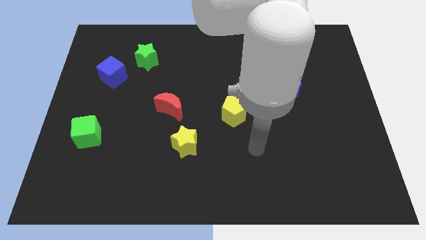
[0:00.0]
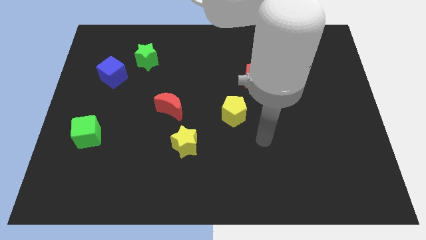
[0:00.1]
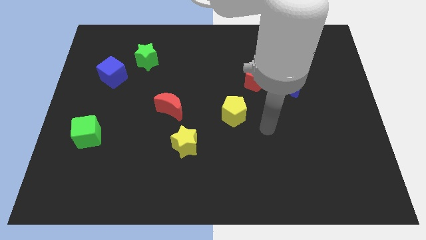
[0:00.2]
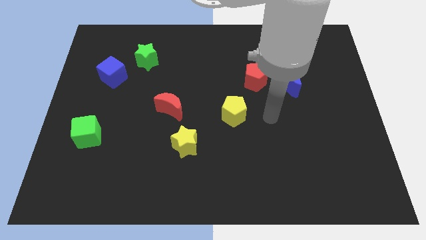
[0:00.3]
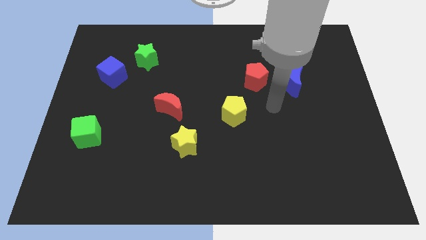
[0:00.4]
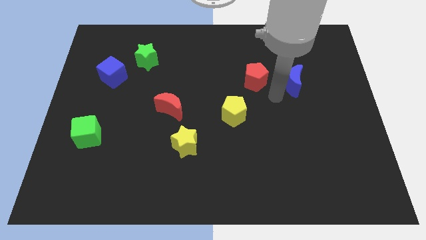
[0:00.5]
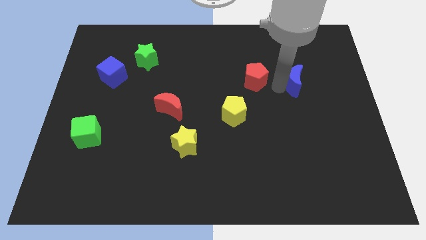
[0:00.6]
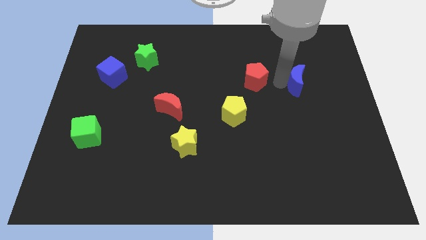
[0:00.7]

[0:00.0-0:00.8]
pull the red pentagon apart from the blue moon

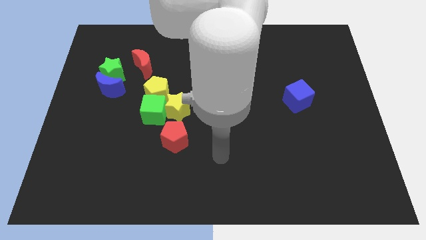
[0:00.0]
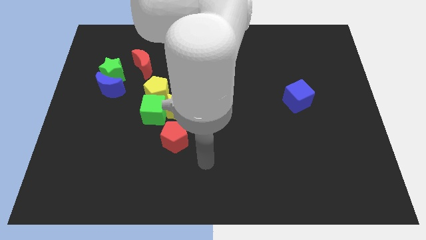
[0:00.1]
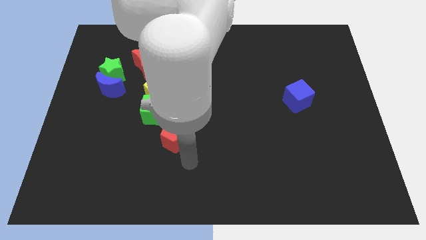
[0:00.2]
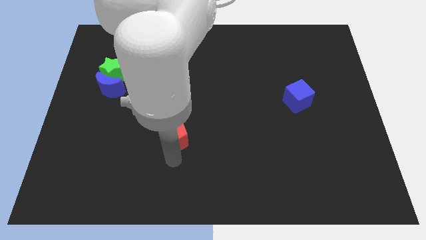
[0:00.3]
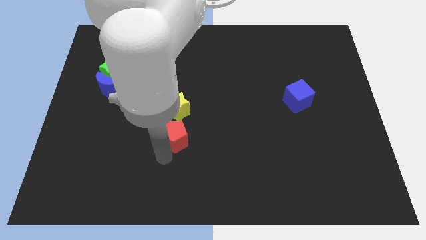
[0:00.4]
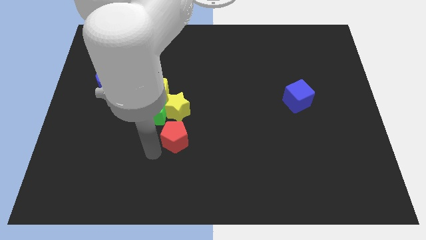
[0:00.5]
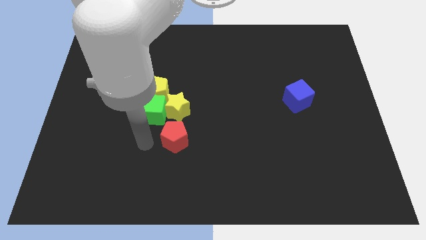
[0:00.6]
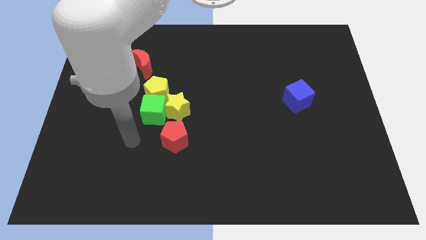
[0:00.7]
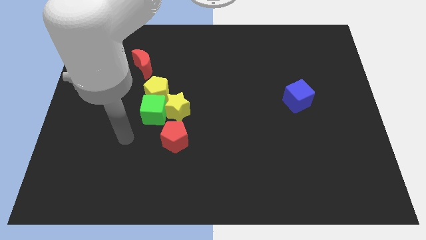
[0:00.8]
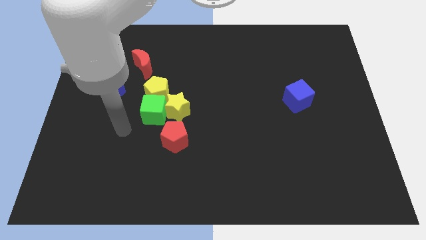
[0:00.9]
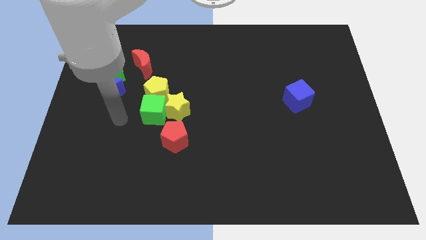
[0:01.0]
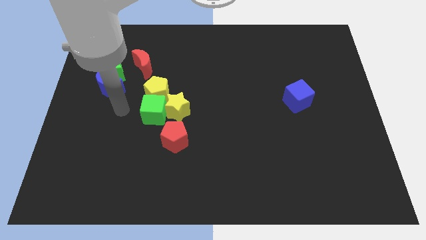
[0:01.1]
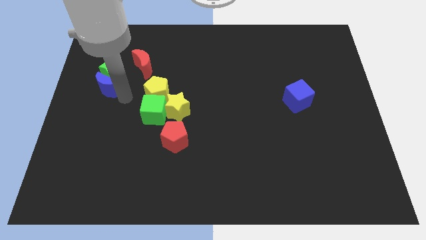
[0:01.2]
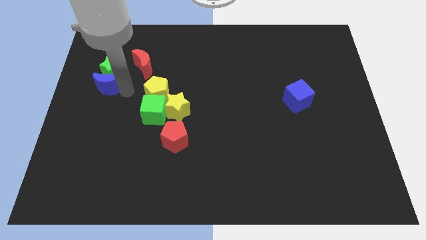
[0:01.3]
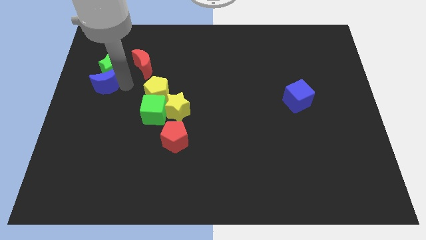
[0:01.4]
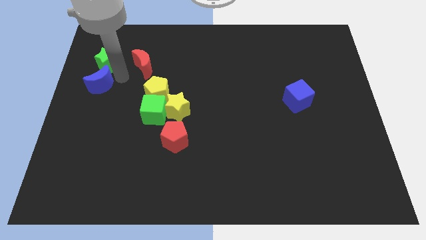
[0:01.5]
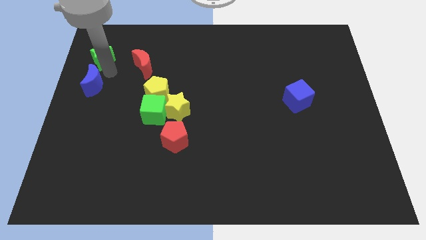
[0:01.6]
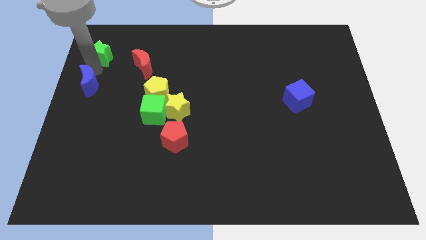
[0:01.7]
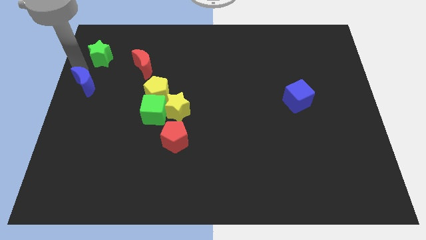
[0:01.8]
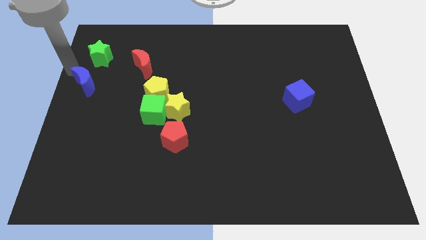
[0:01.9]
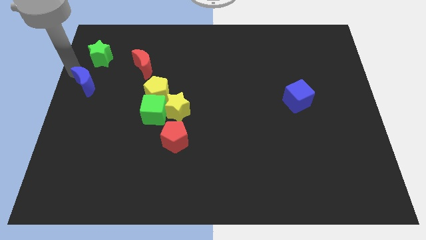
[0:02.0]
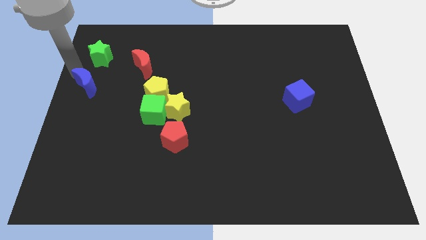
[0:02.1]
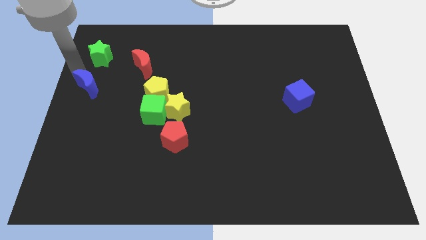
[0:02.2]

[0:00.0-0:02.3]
pull the blue moon apart from the green star

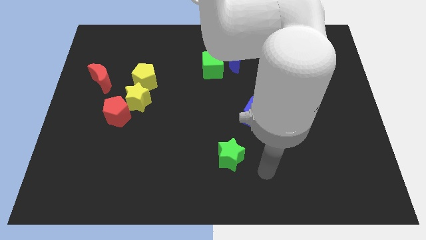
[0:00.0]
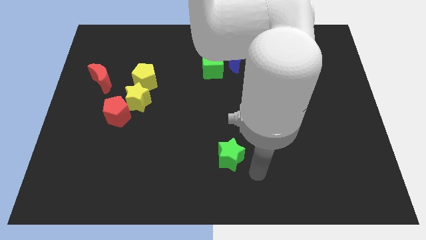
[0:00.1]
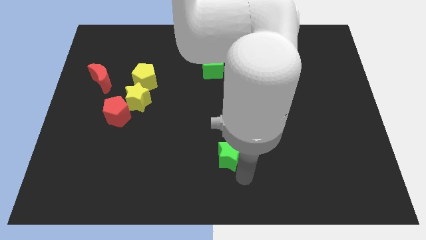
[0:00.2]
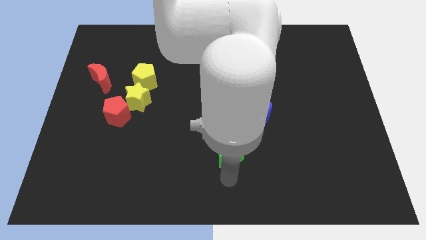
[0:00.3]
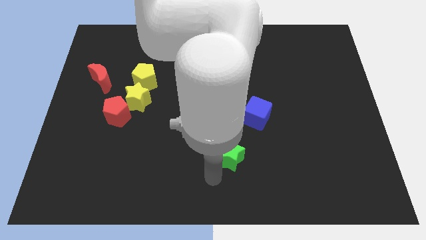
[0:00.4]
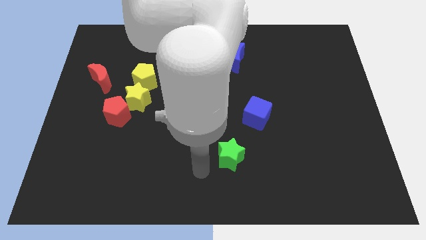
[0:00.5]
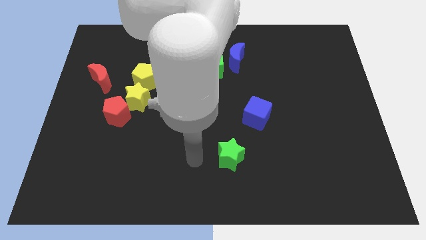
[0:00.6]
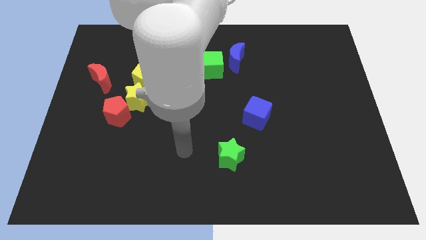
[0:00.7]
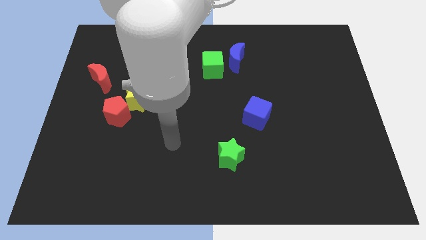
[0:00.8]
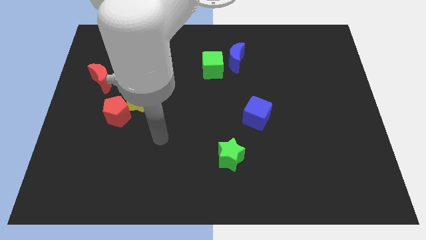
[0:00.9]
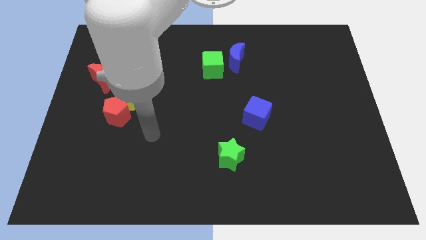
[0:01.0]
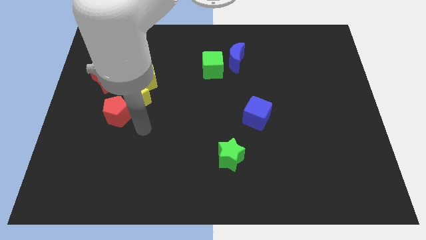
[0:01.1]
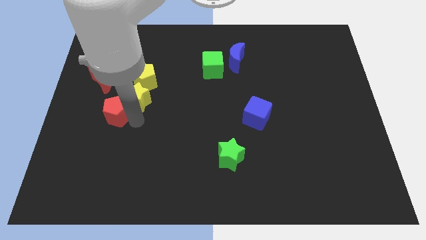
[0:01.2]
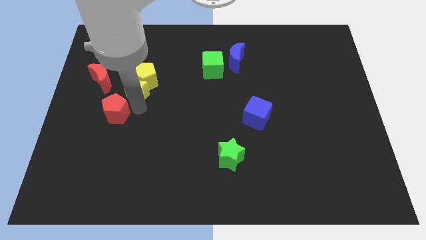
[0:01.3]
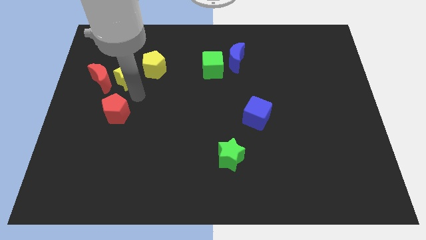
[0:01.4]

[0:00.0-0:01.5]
pull the red pentagon apart from the yellow star

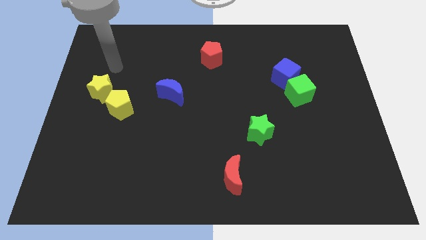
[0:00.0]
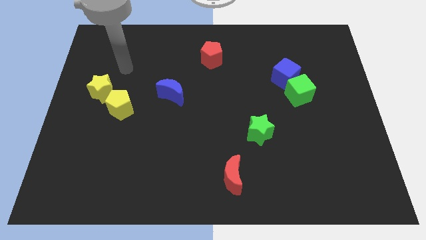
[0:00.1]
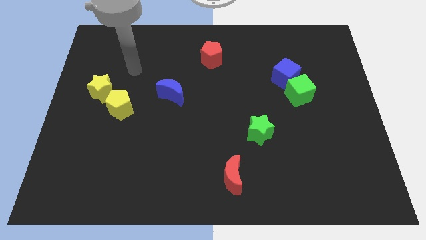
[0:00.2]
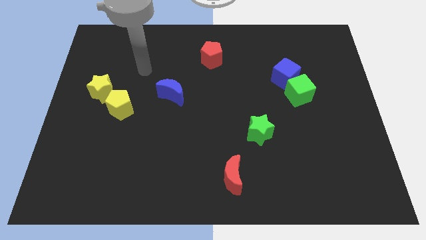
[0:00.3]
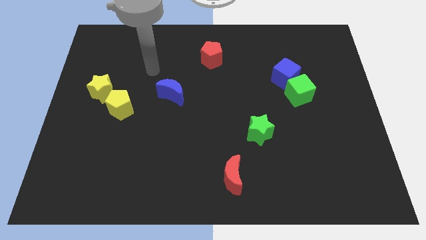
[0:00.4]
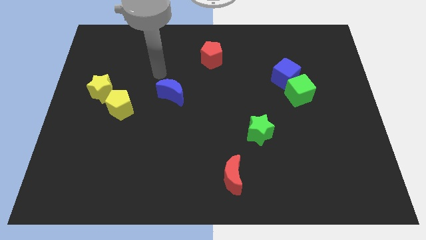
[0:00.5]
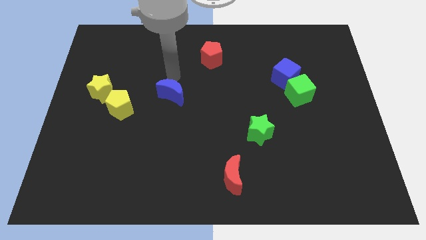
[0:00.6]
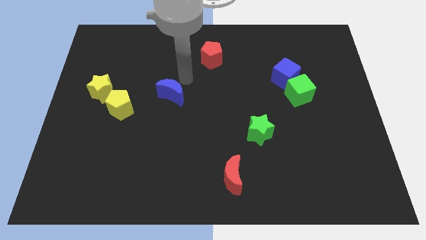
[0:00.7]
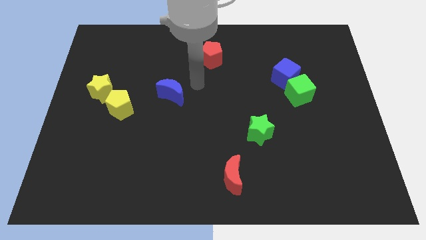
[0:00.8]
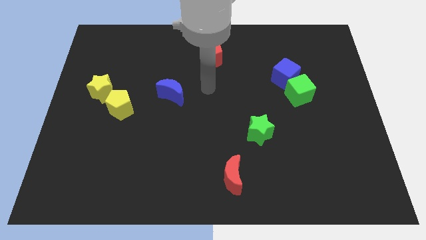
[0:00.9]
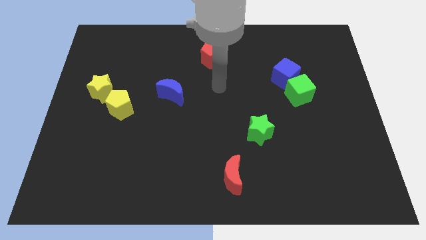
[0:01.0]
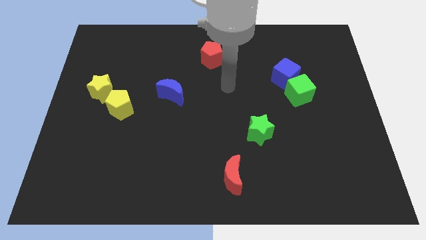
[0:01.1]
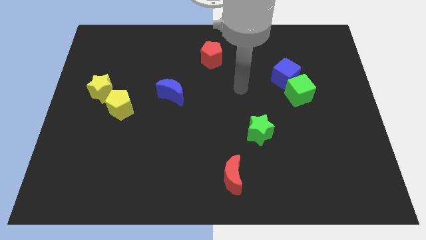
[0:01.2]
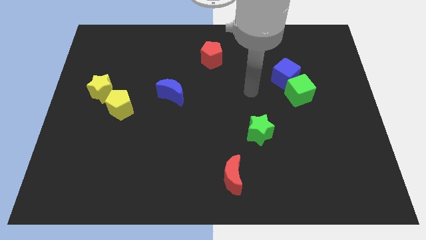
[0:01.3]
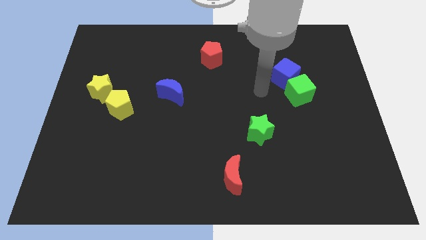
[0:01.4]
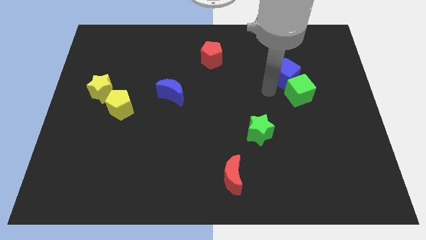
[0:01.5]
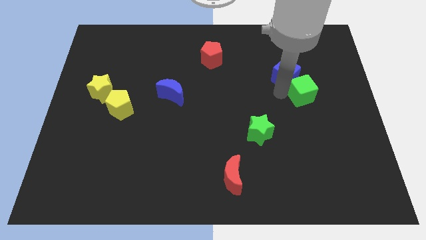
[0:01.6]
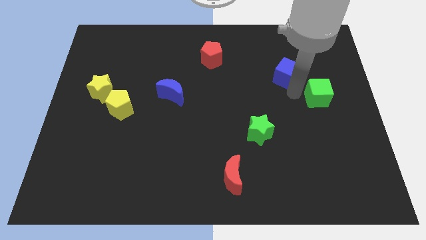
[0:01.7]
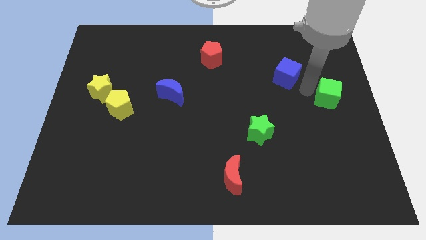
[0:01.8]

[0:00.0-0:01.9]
separate the blue cube from the green cube

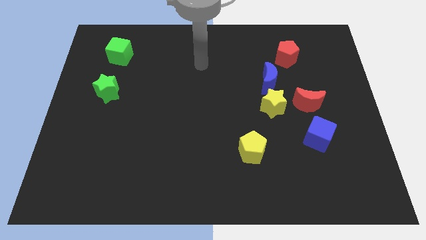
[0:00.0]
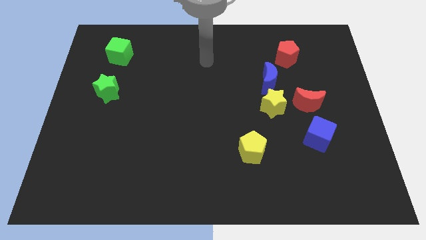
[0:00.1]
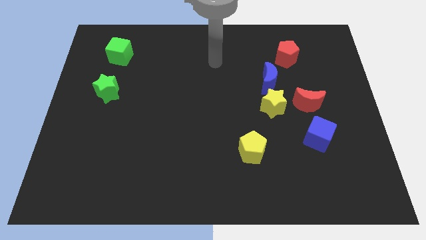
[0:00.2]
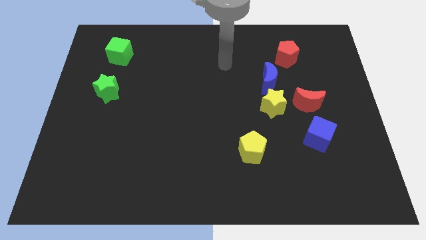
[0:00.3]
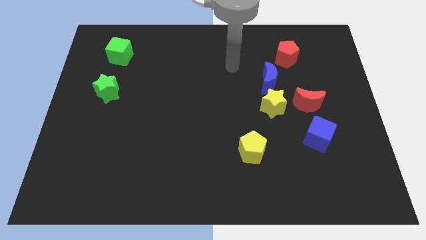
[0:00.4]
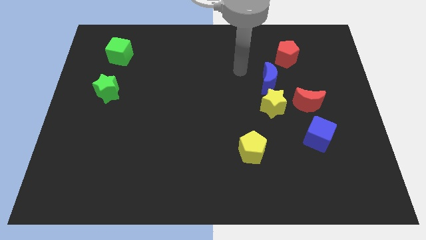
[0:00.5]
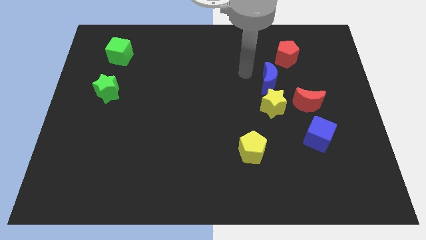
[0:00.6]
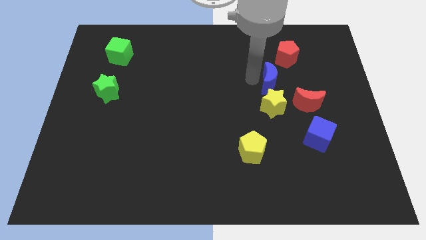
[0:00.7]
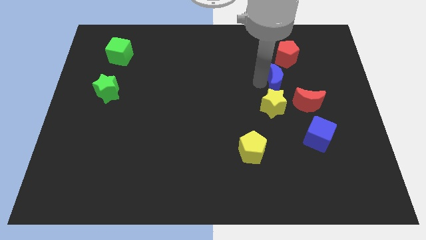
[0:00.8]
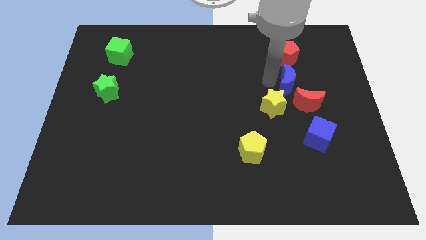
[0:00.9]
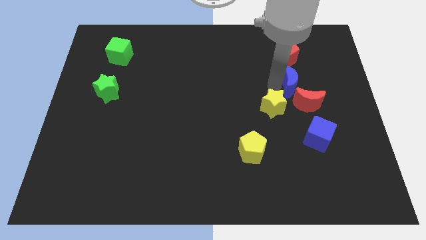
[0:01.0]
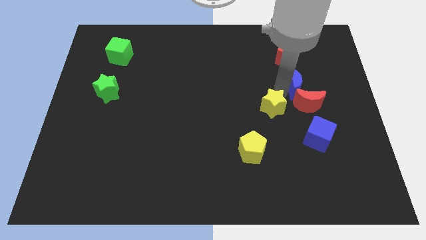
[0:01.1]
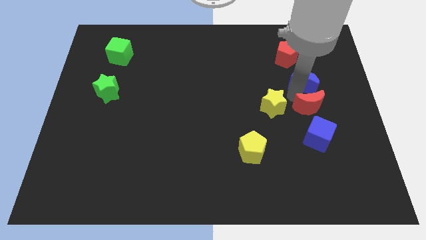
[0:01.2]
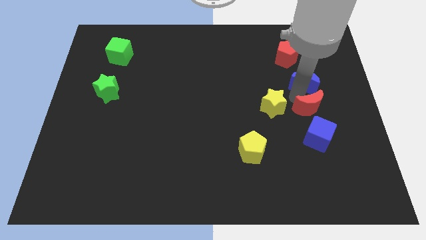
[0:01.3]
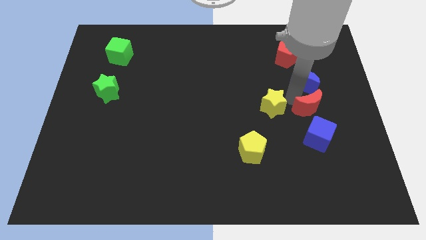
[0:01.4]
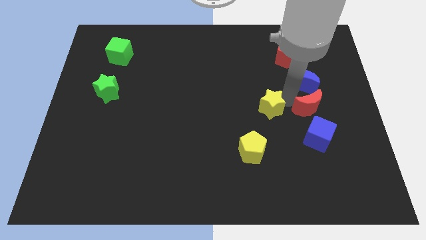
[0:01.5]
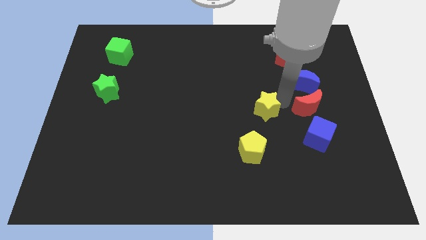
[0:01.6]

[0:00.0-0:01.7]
pull the yellow star apart from the blue moon and red moon

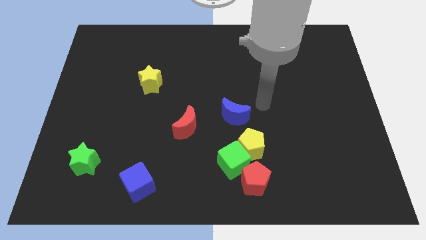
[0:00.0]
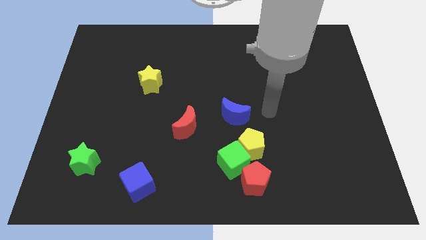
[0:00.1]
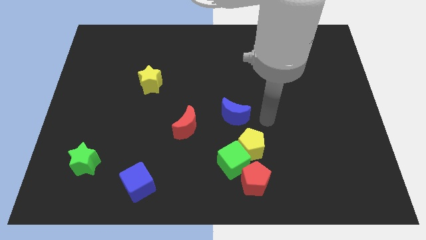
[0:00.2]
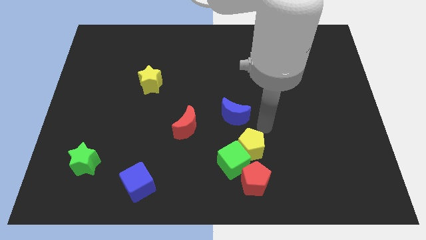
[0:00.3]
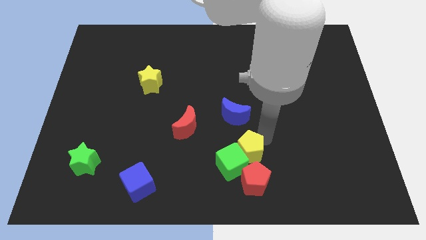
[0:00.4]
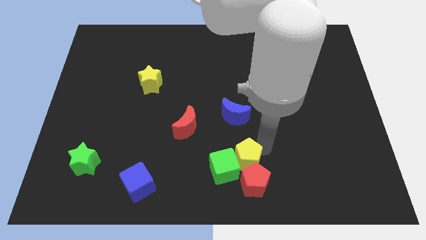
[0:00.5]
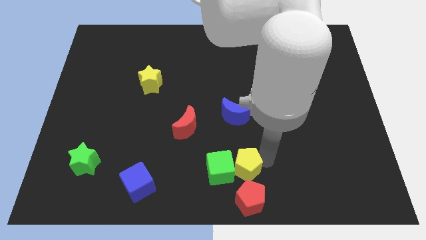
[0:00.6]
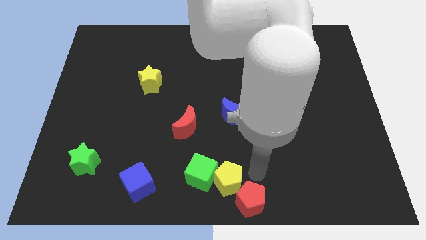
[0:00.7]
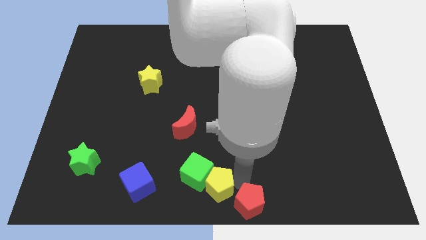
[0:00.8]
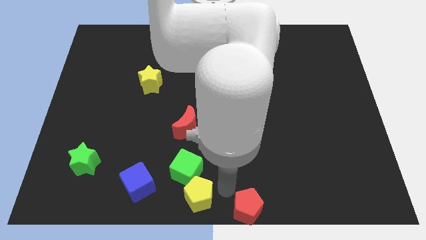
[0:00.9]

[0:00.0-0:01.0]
move the green cube away from the yellow pentagon and red pentagon
